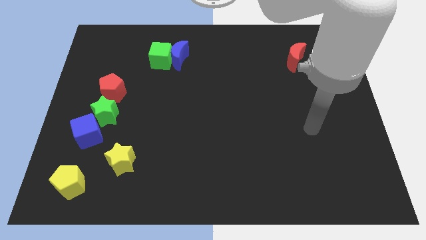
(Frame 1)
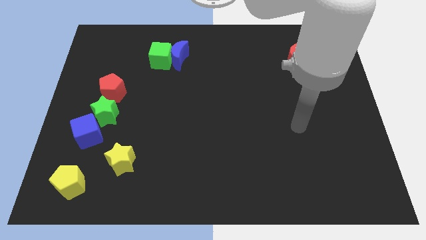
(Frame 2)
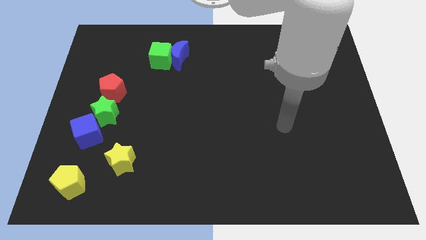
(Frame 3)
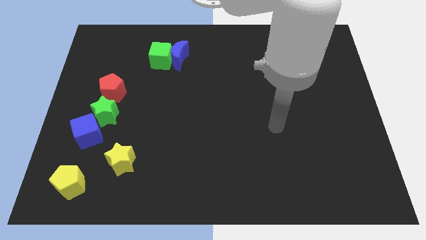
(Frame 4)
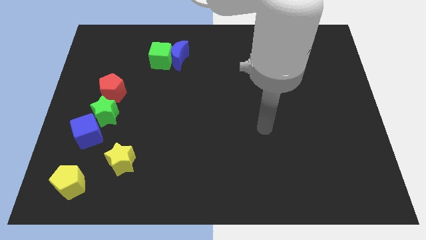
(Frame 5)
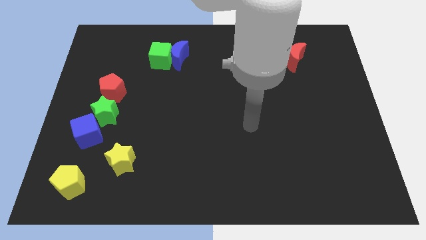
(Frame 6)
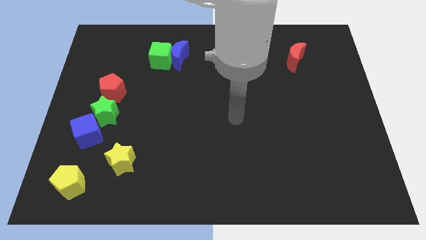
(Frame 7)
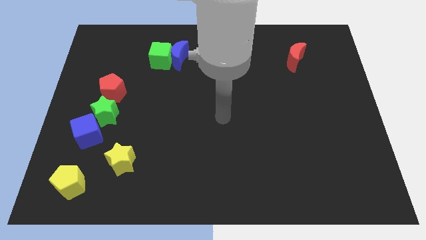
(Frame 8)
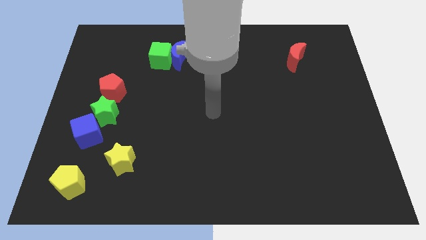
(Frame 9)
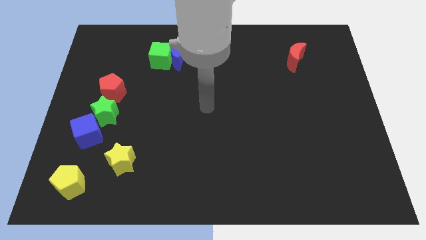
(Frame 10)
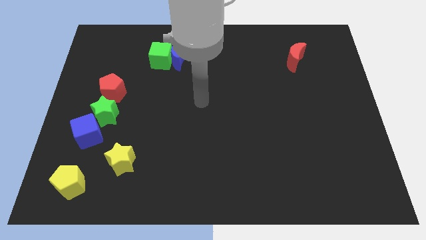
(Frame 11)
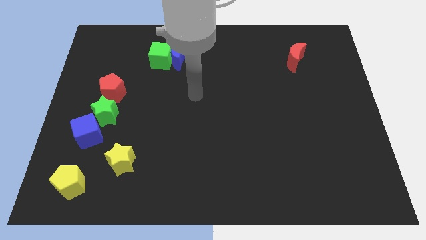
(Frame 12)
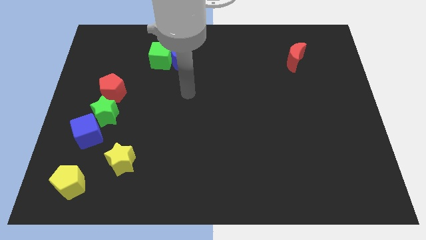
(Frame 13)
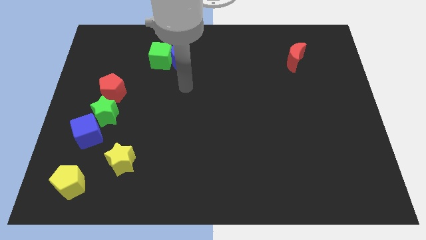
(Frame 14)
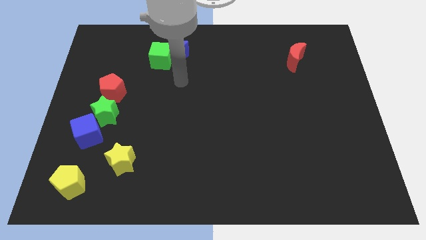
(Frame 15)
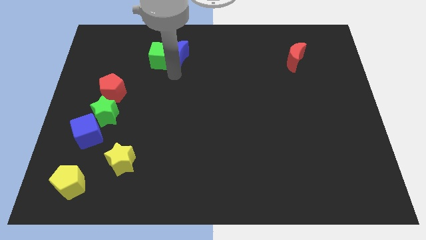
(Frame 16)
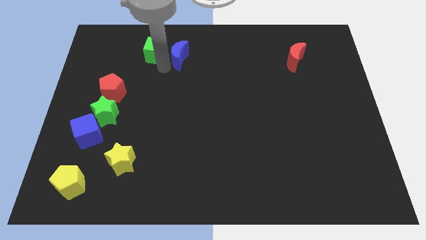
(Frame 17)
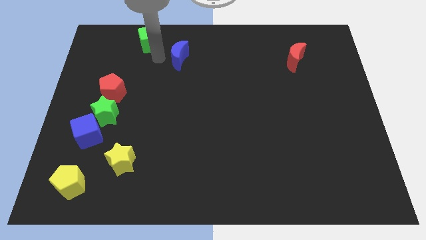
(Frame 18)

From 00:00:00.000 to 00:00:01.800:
pull the blue moon apart from the green cube

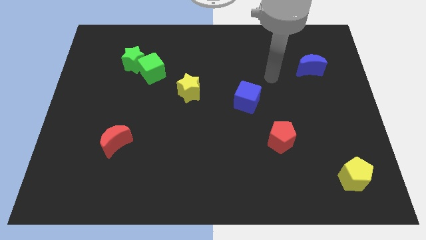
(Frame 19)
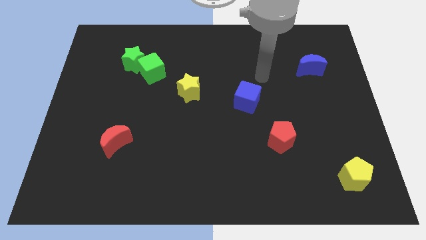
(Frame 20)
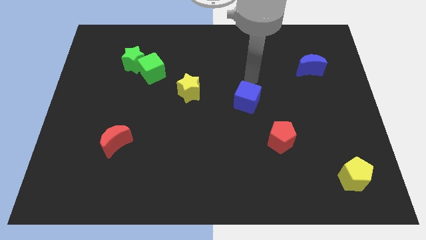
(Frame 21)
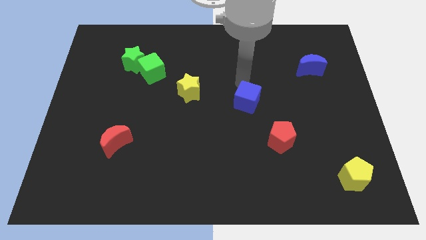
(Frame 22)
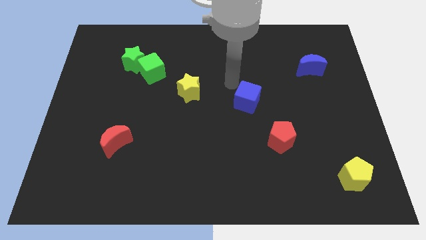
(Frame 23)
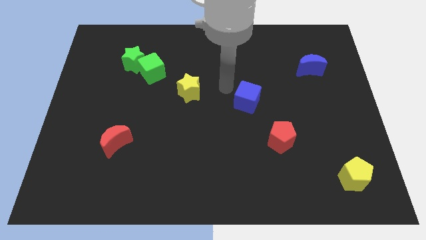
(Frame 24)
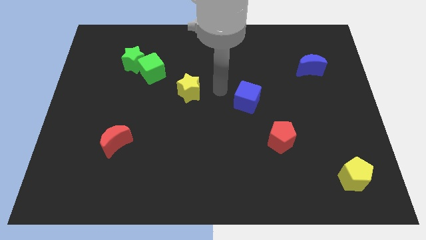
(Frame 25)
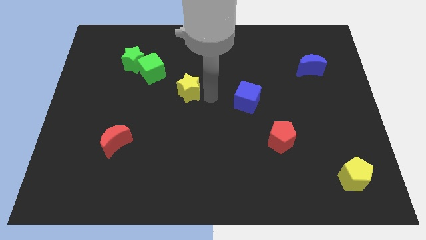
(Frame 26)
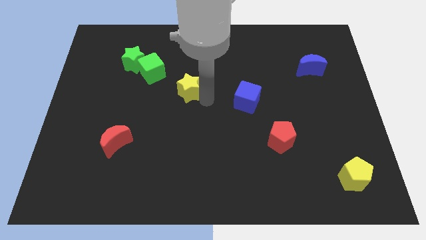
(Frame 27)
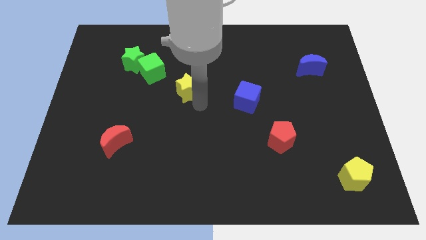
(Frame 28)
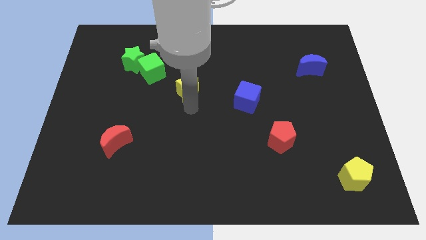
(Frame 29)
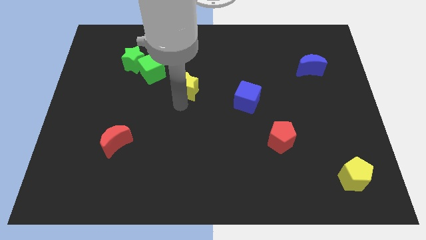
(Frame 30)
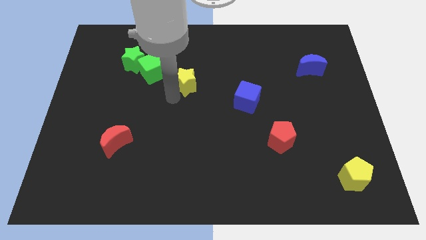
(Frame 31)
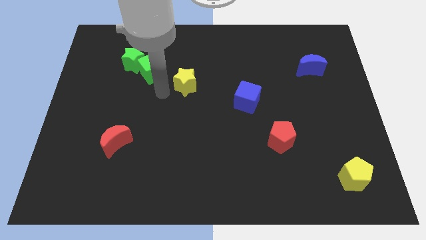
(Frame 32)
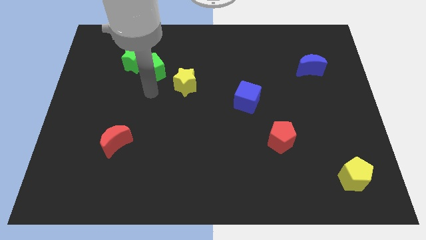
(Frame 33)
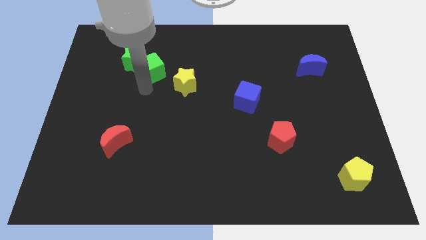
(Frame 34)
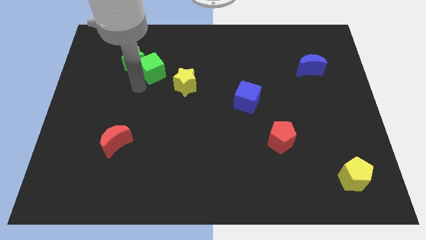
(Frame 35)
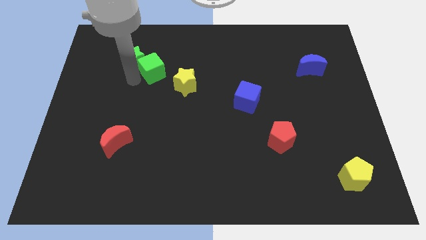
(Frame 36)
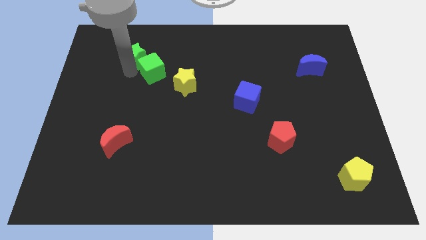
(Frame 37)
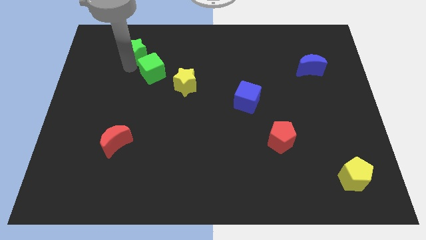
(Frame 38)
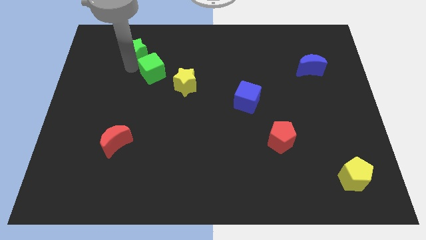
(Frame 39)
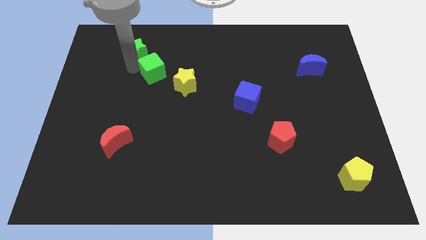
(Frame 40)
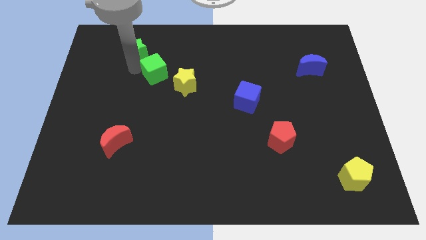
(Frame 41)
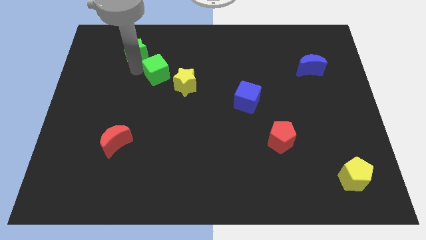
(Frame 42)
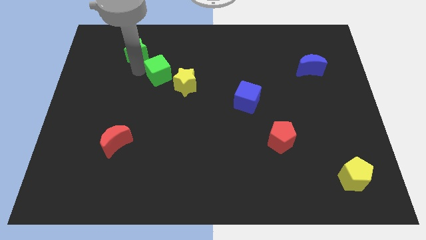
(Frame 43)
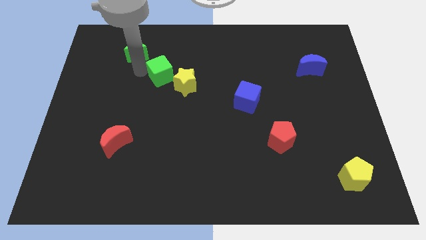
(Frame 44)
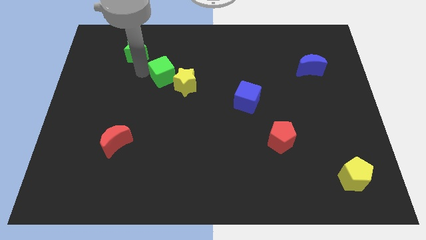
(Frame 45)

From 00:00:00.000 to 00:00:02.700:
separate the green cube from the green star

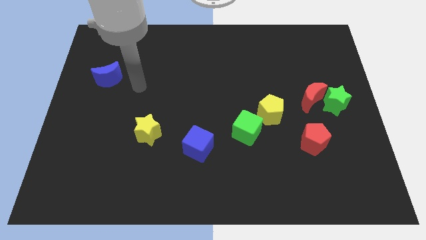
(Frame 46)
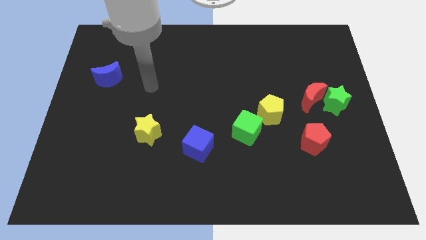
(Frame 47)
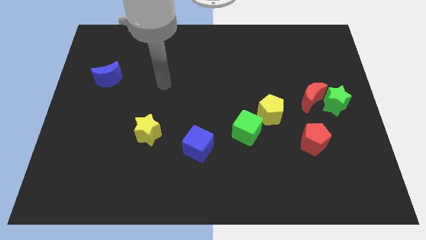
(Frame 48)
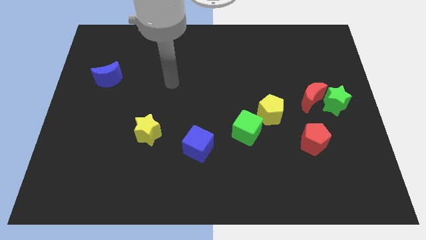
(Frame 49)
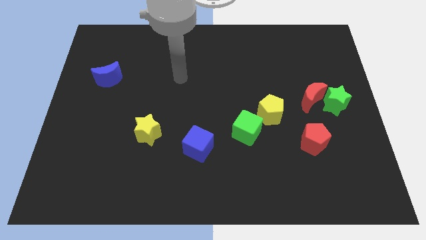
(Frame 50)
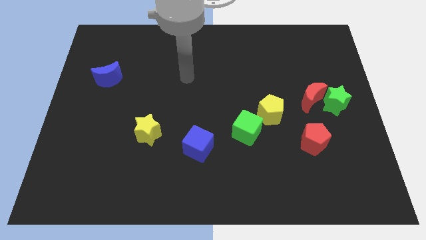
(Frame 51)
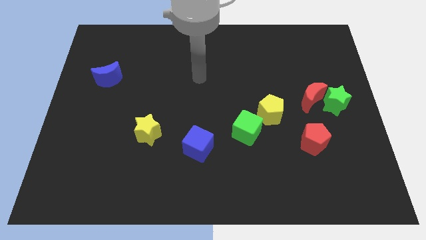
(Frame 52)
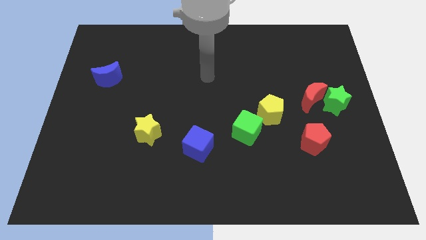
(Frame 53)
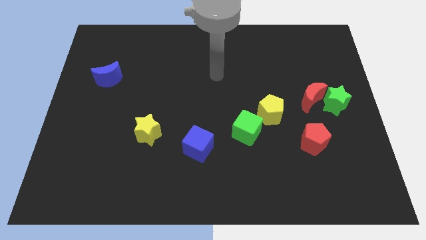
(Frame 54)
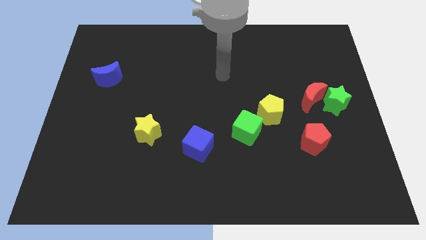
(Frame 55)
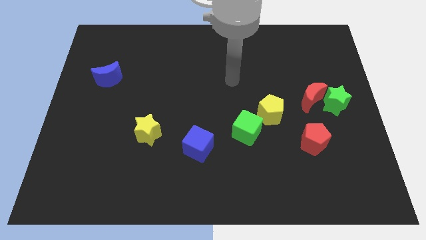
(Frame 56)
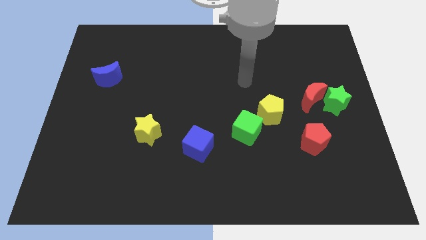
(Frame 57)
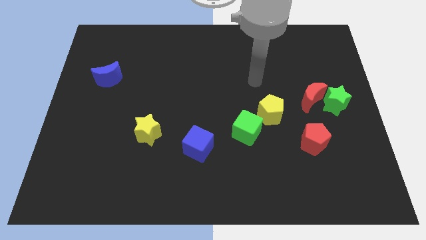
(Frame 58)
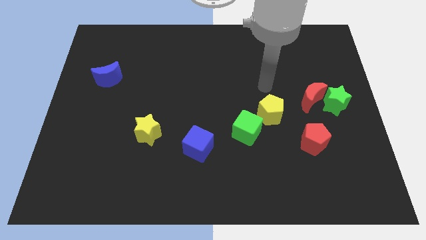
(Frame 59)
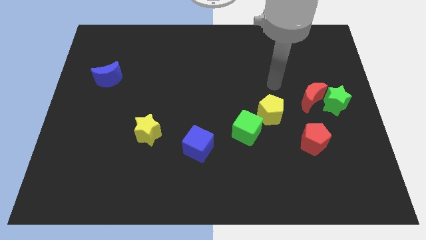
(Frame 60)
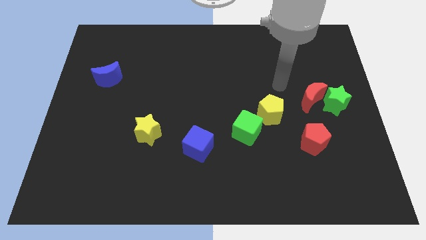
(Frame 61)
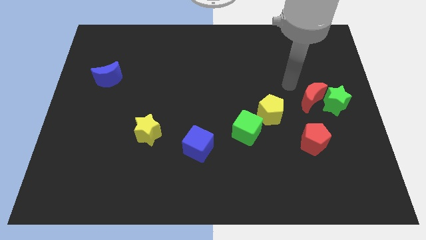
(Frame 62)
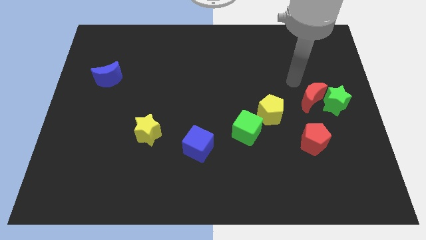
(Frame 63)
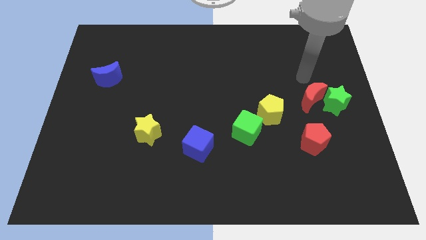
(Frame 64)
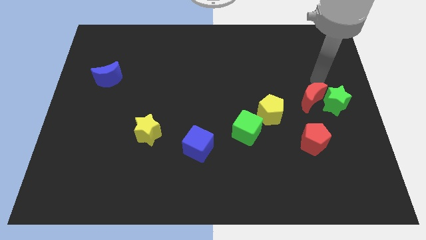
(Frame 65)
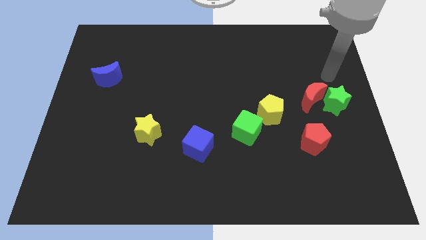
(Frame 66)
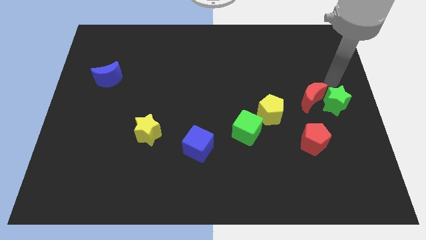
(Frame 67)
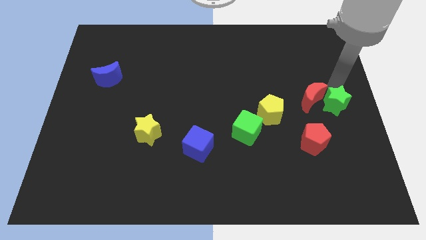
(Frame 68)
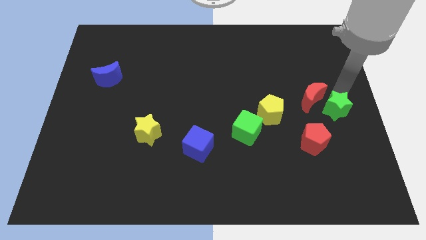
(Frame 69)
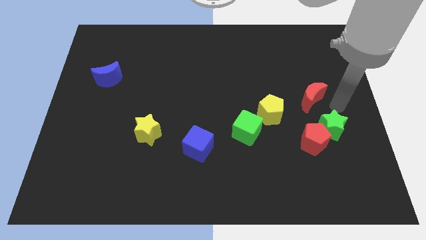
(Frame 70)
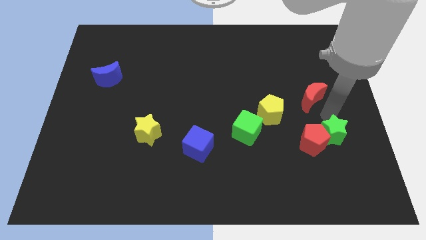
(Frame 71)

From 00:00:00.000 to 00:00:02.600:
pull the red moon apart from the green star

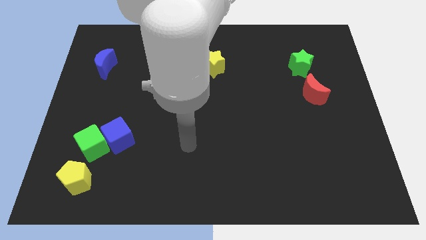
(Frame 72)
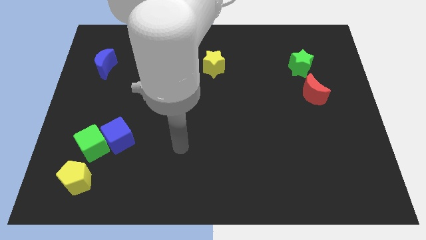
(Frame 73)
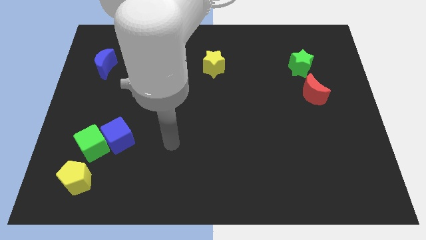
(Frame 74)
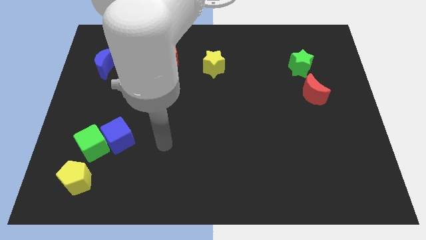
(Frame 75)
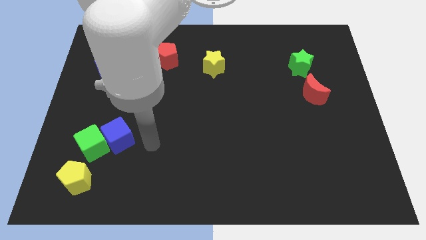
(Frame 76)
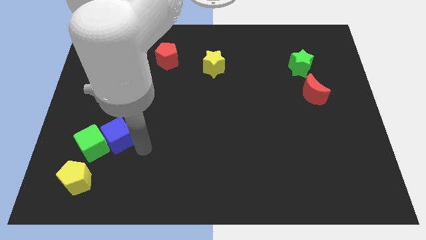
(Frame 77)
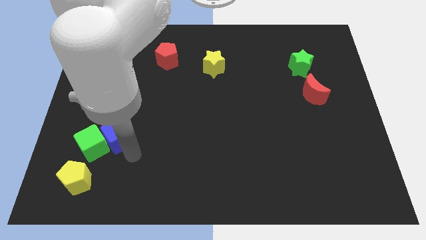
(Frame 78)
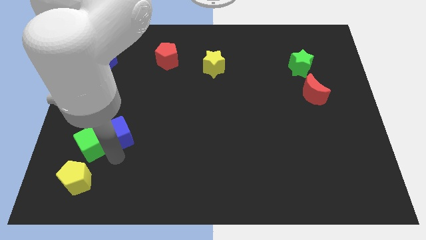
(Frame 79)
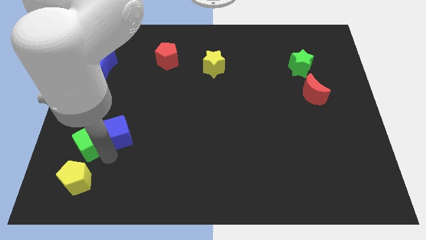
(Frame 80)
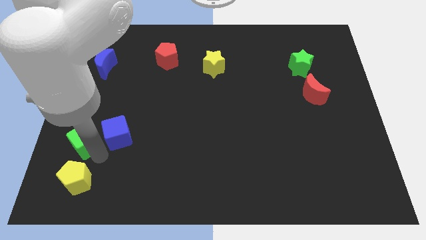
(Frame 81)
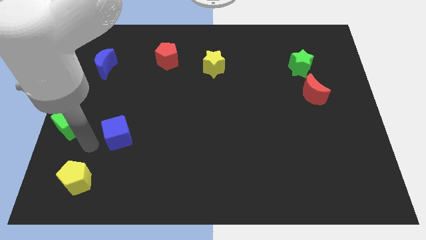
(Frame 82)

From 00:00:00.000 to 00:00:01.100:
move the blue cube away from the green cube

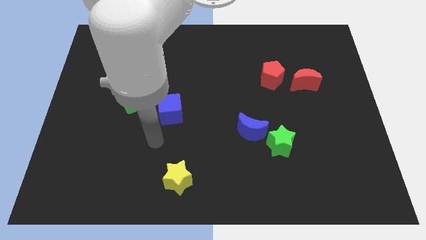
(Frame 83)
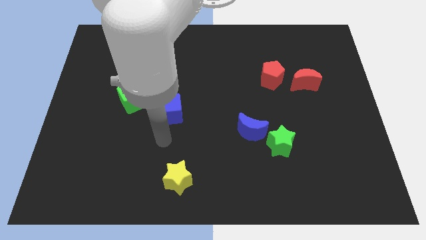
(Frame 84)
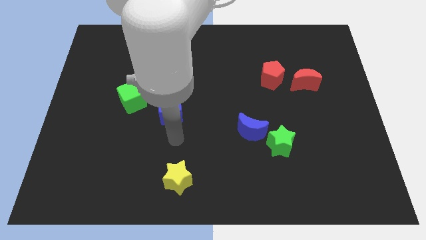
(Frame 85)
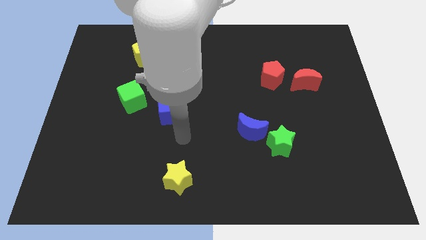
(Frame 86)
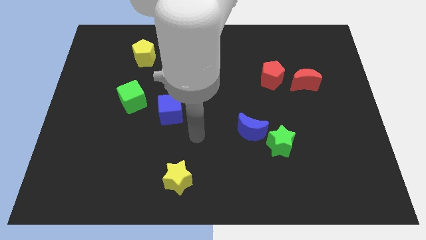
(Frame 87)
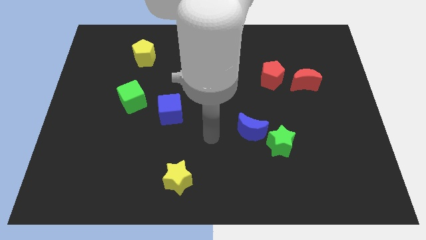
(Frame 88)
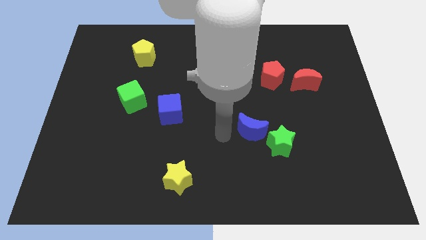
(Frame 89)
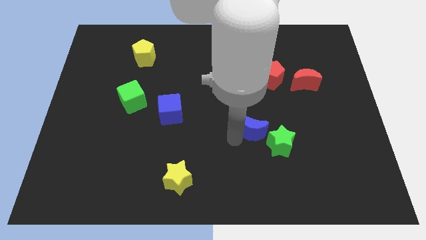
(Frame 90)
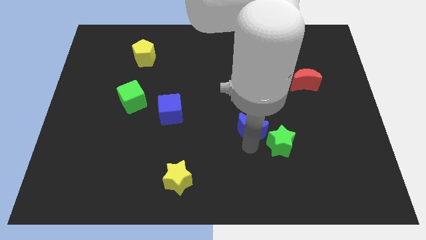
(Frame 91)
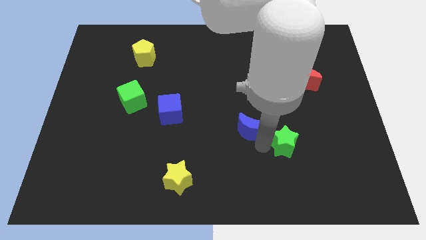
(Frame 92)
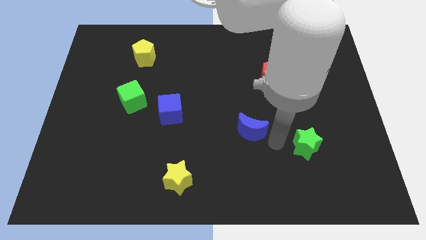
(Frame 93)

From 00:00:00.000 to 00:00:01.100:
pull the blue moon apart from the green star
